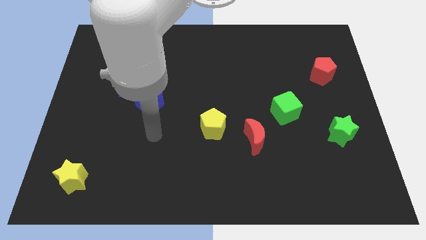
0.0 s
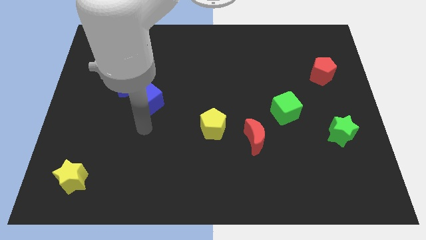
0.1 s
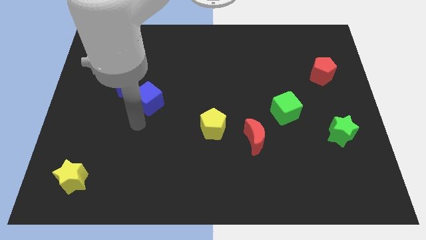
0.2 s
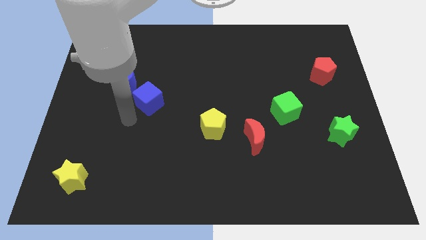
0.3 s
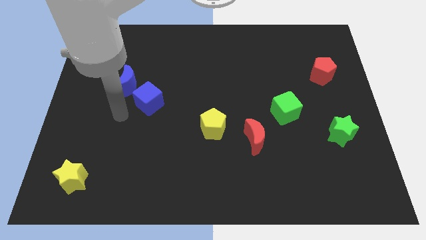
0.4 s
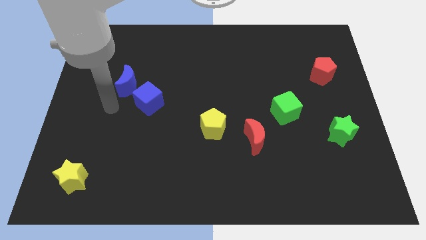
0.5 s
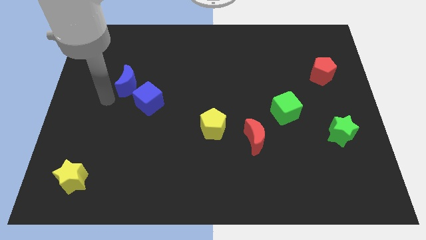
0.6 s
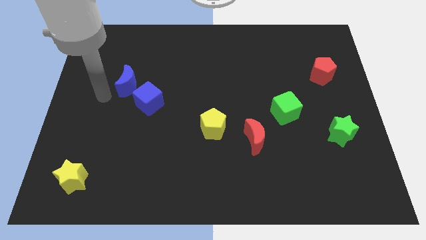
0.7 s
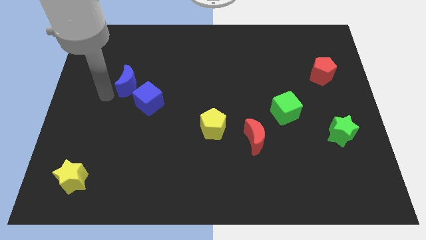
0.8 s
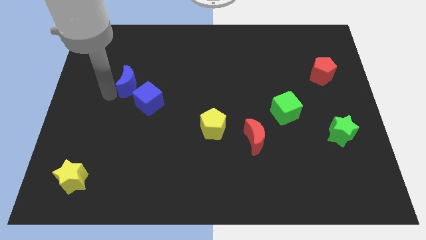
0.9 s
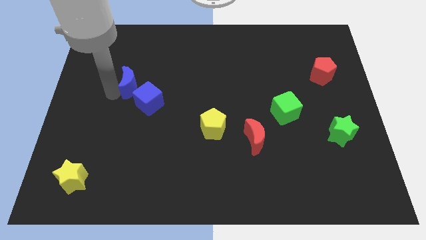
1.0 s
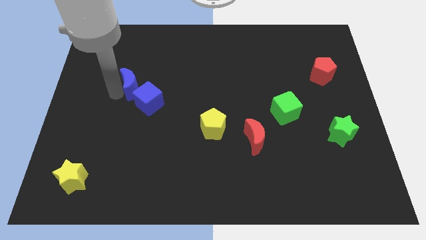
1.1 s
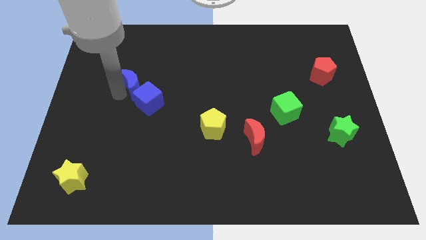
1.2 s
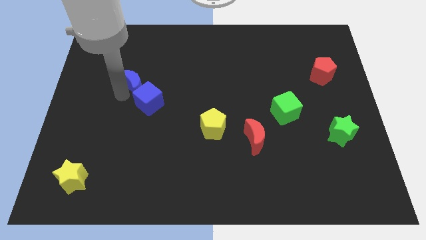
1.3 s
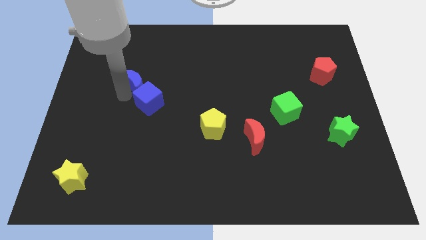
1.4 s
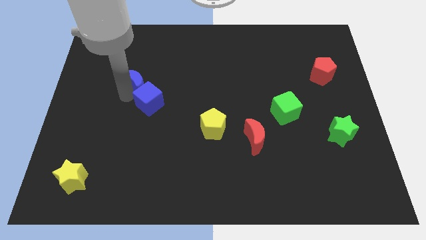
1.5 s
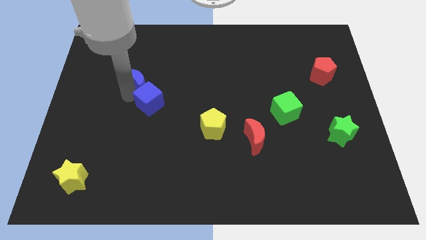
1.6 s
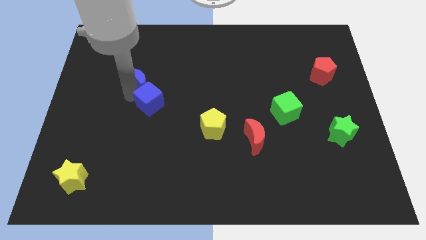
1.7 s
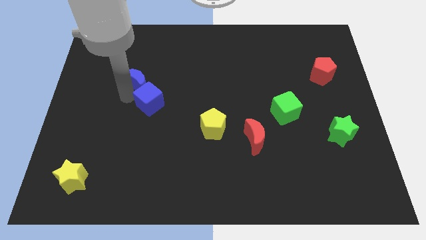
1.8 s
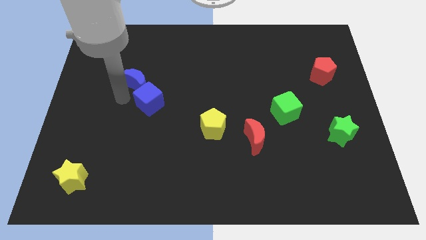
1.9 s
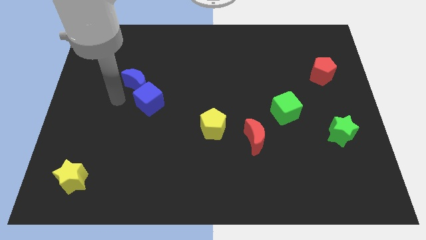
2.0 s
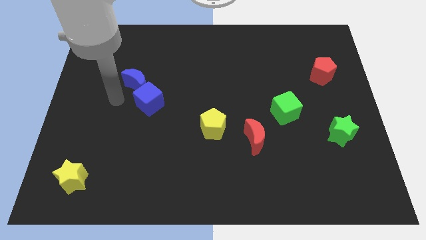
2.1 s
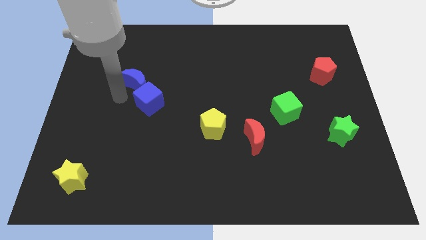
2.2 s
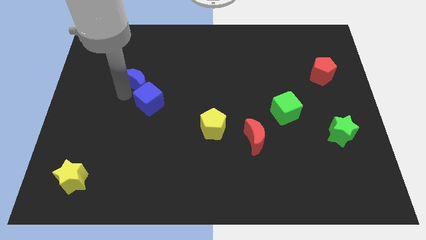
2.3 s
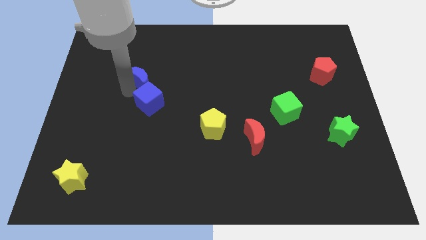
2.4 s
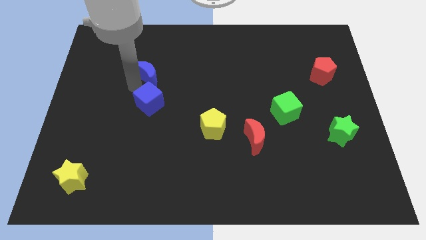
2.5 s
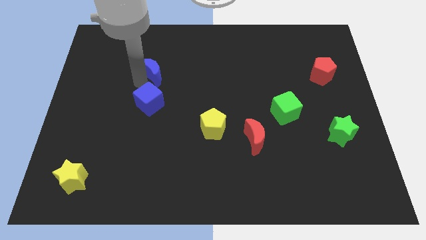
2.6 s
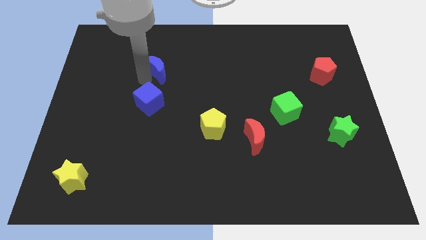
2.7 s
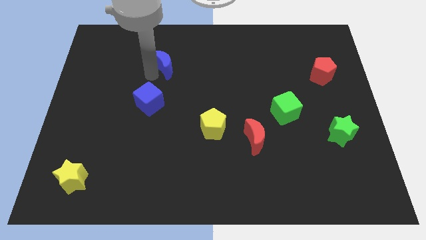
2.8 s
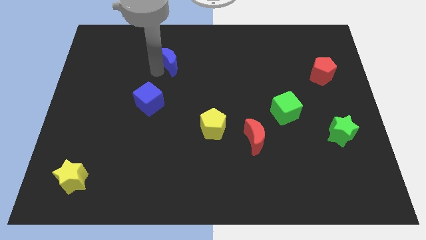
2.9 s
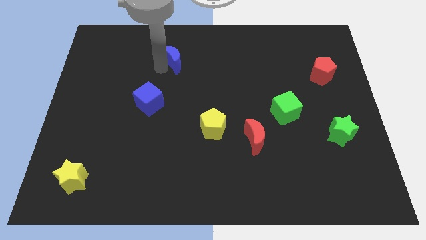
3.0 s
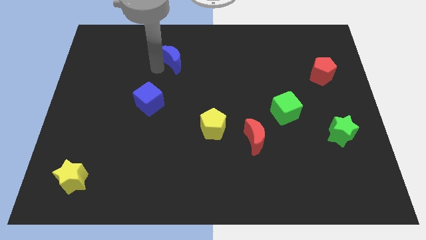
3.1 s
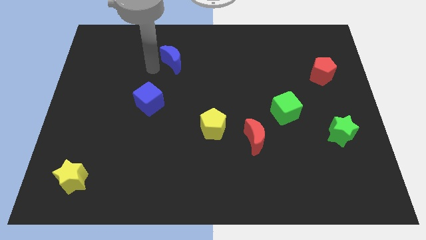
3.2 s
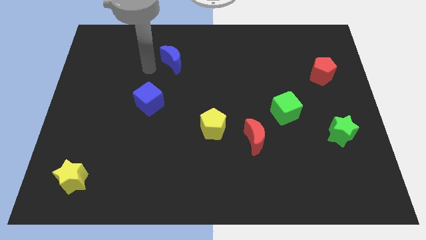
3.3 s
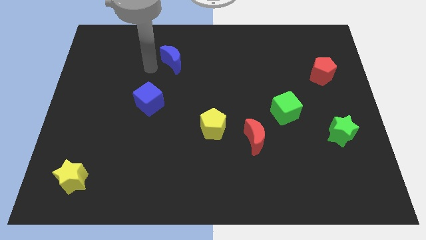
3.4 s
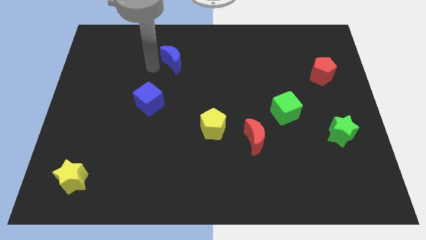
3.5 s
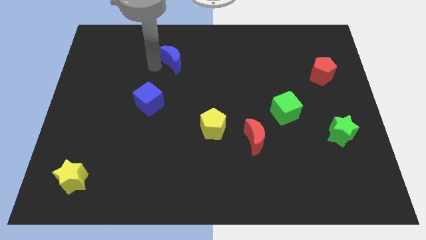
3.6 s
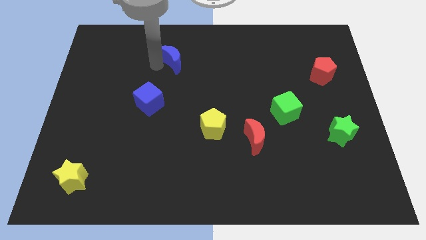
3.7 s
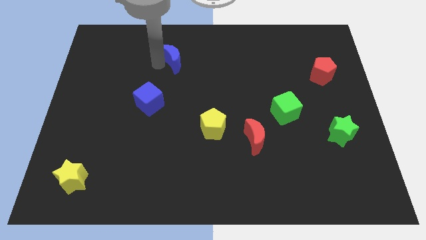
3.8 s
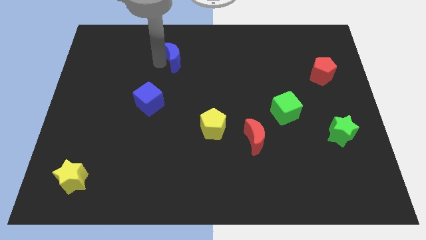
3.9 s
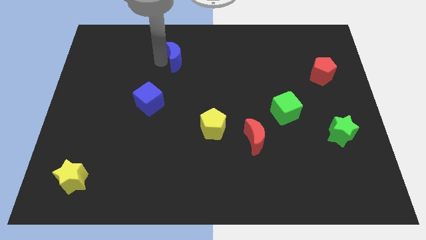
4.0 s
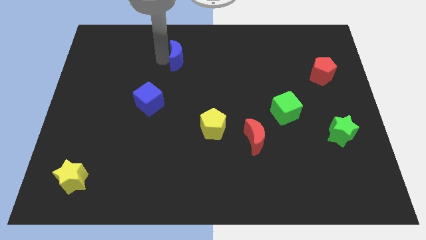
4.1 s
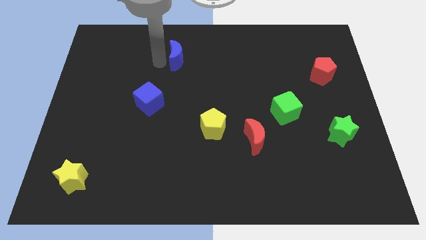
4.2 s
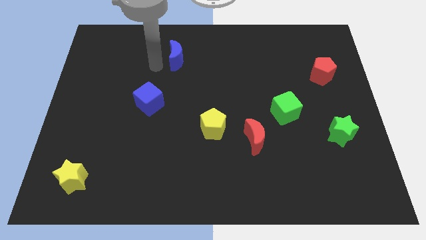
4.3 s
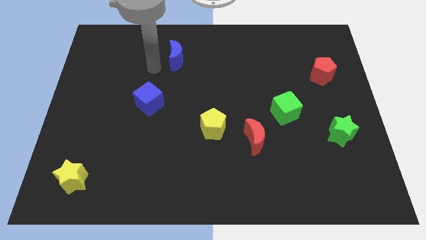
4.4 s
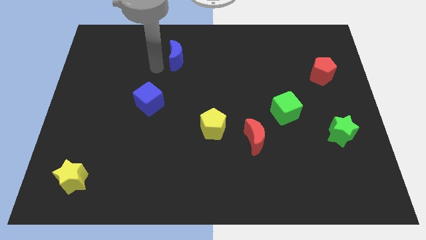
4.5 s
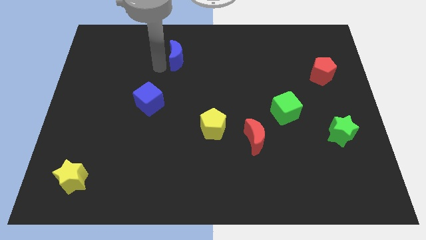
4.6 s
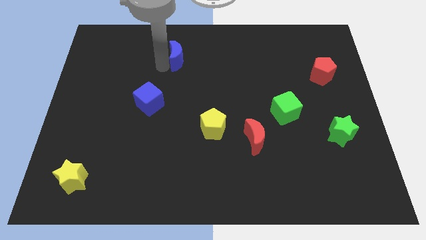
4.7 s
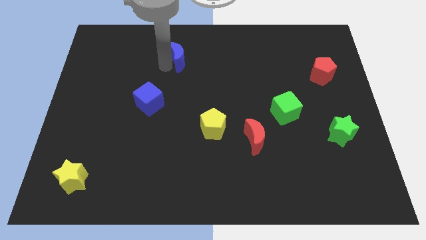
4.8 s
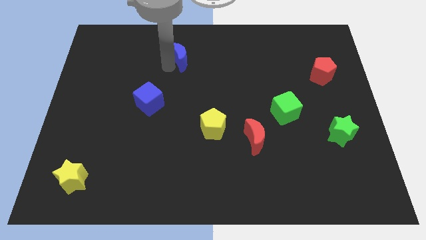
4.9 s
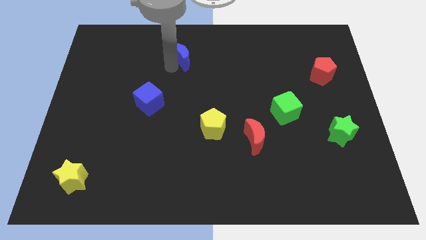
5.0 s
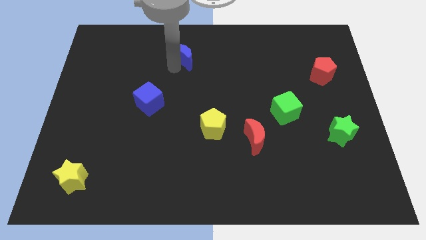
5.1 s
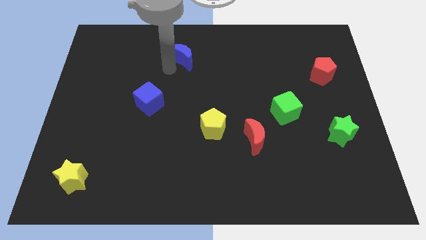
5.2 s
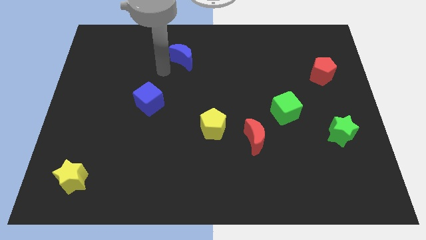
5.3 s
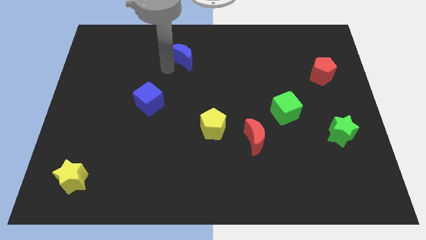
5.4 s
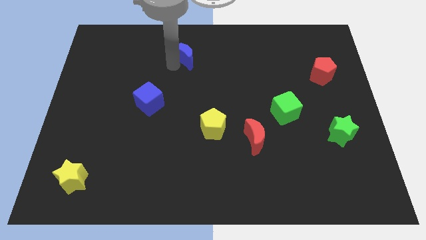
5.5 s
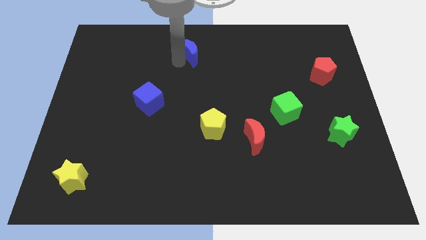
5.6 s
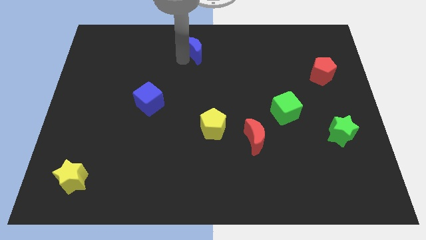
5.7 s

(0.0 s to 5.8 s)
push the blue moon to the top

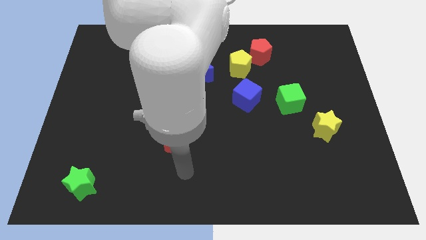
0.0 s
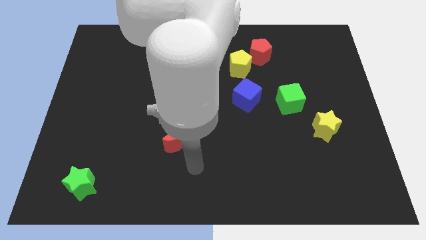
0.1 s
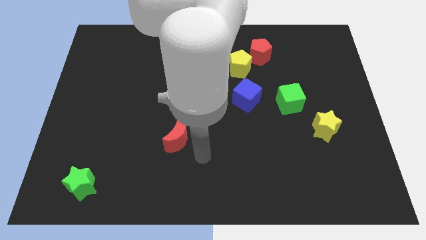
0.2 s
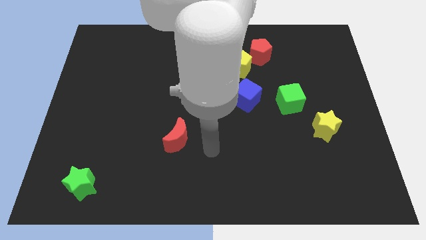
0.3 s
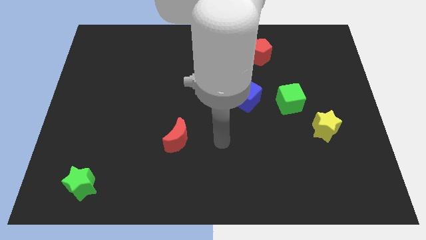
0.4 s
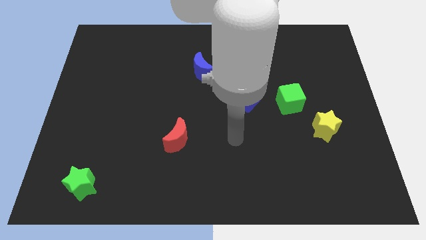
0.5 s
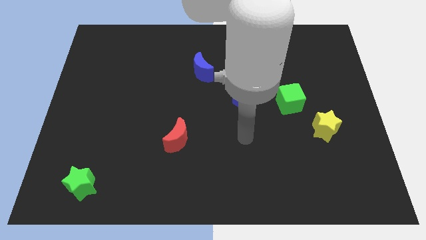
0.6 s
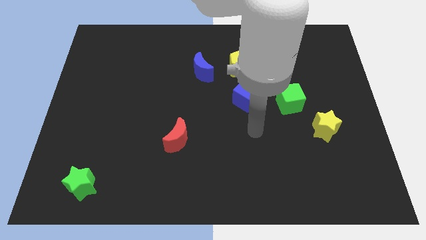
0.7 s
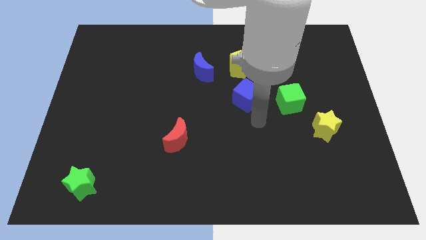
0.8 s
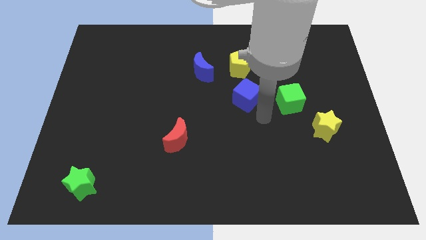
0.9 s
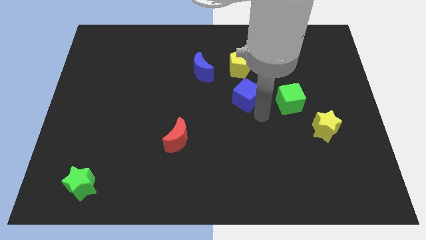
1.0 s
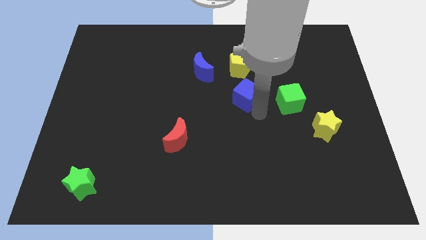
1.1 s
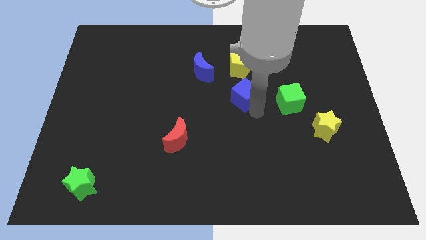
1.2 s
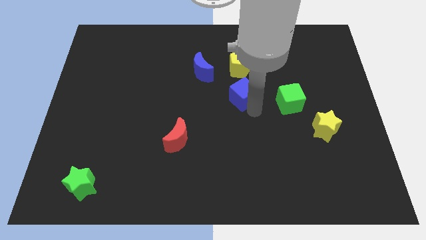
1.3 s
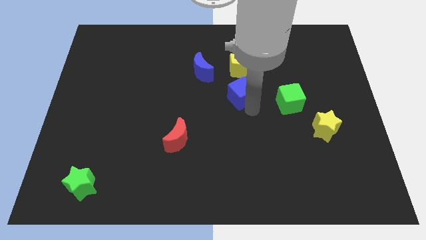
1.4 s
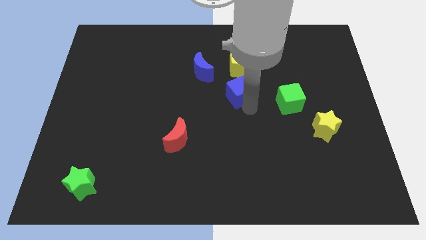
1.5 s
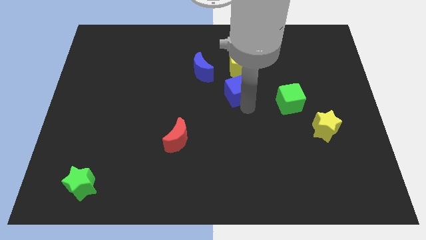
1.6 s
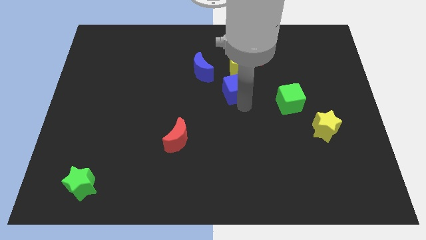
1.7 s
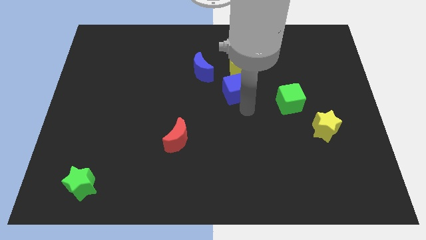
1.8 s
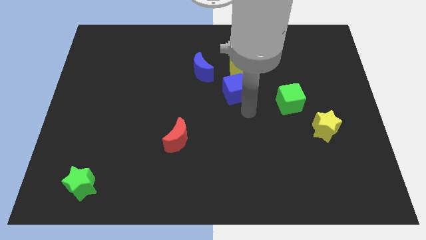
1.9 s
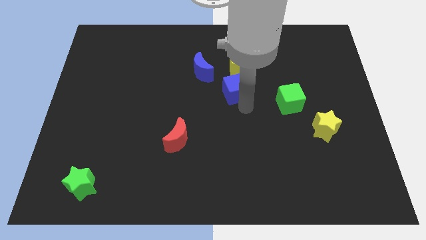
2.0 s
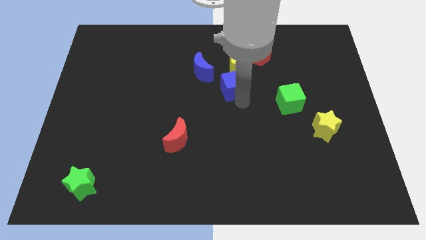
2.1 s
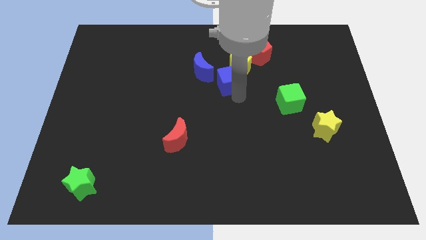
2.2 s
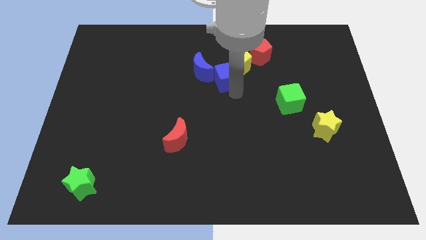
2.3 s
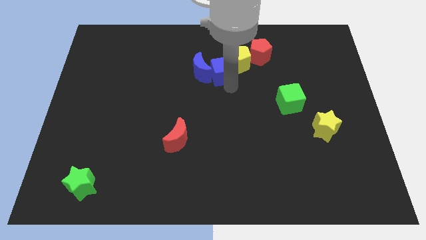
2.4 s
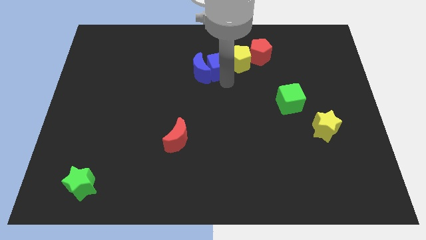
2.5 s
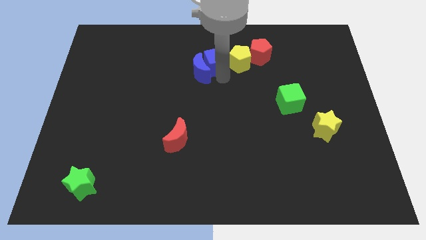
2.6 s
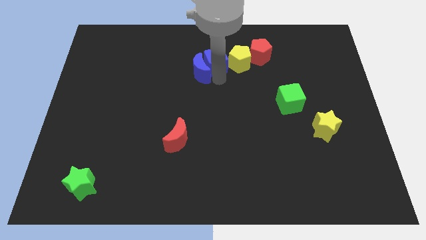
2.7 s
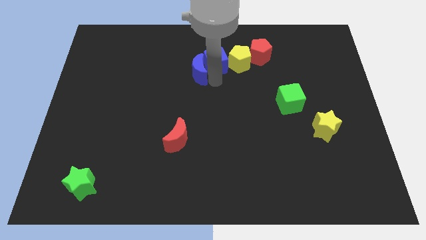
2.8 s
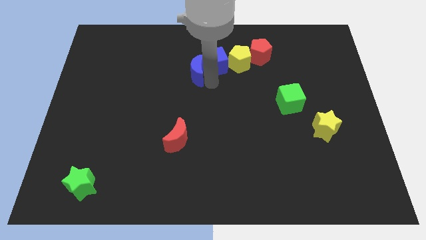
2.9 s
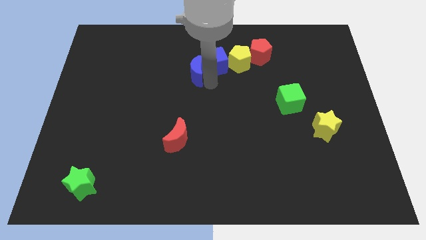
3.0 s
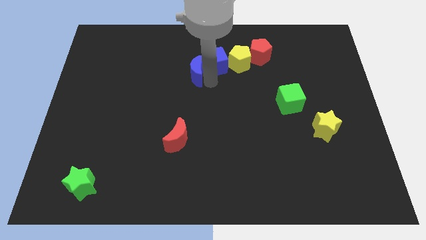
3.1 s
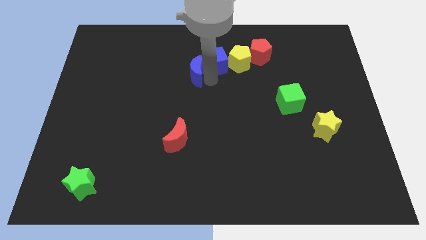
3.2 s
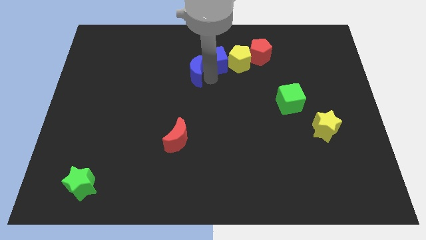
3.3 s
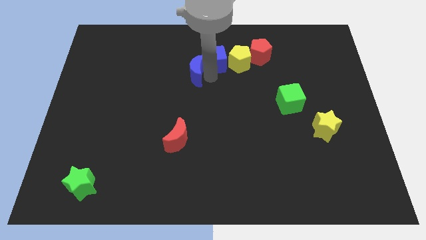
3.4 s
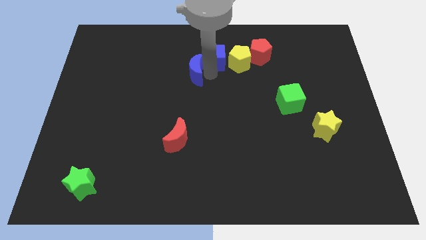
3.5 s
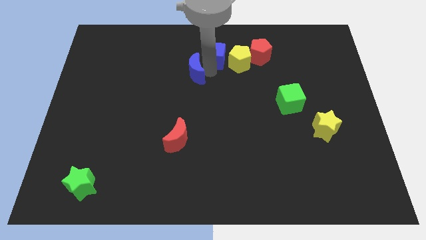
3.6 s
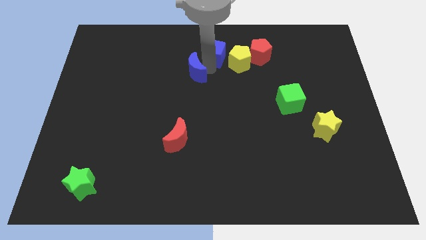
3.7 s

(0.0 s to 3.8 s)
slide the blue cube to the towards your base
